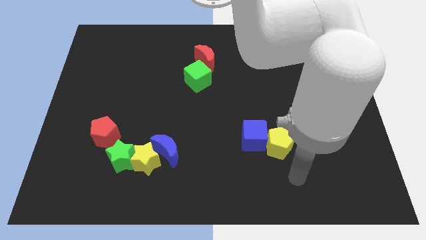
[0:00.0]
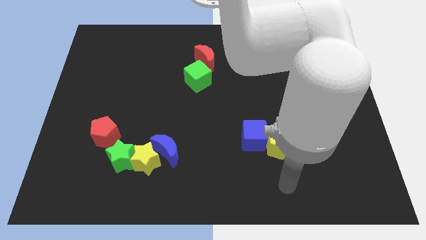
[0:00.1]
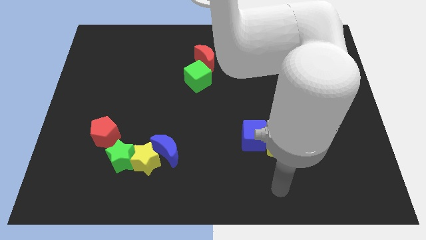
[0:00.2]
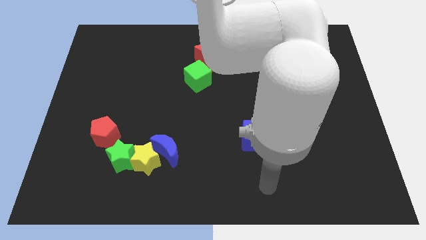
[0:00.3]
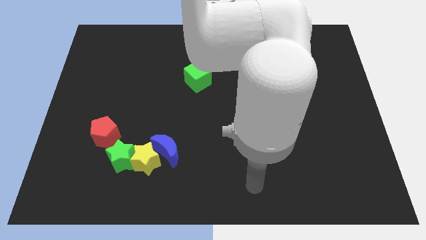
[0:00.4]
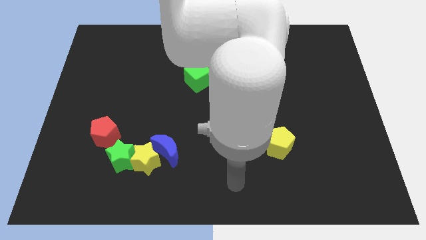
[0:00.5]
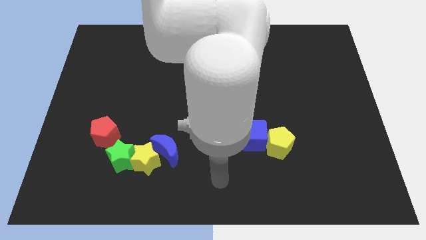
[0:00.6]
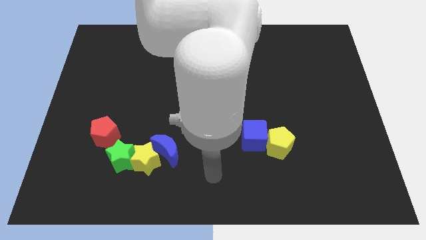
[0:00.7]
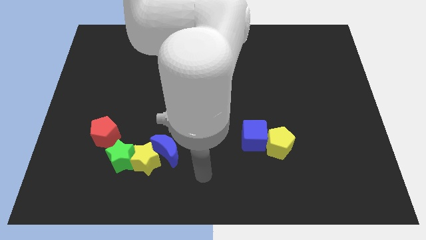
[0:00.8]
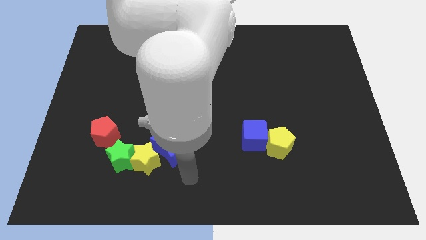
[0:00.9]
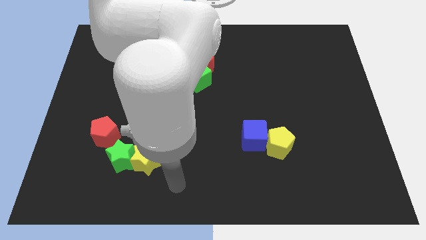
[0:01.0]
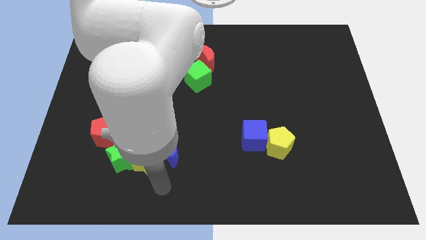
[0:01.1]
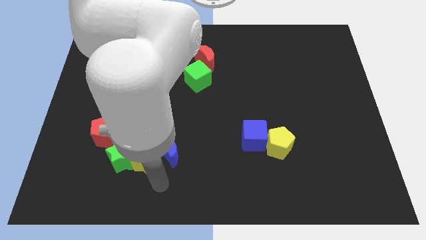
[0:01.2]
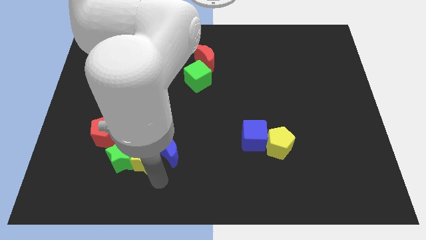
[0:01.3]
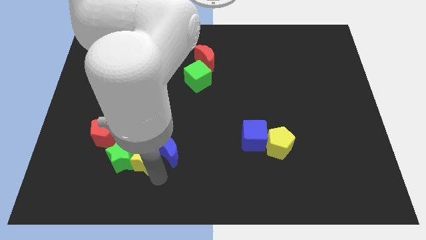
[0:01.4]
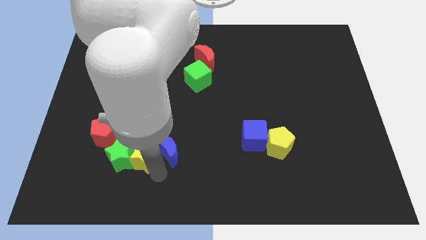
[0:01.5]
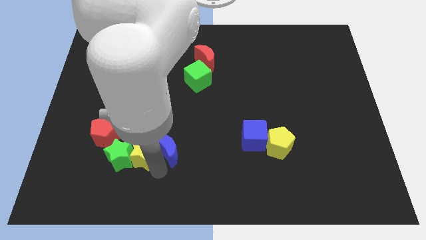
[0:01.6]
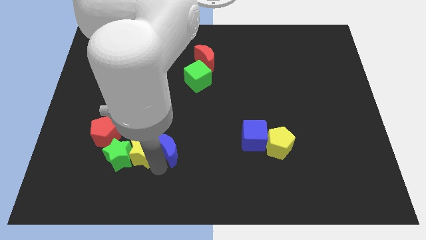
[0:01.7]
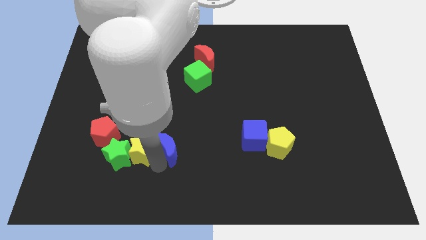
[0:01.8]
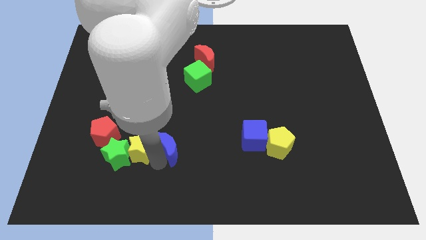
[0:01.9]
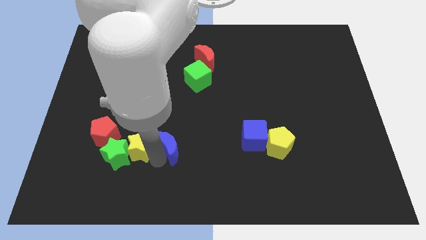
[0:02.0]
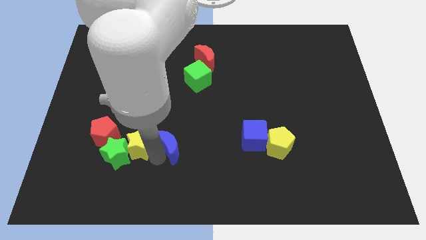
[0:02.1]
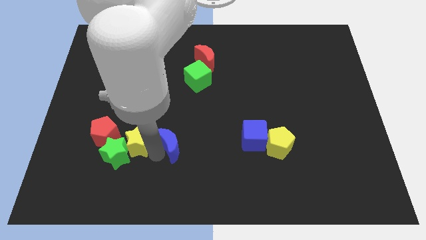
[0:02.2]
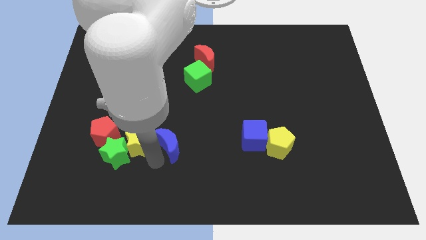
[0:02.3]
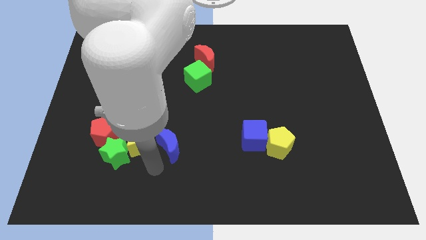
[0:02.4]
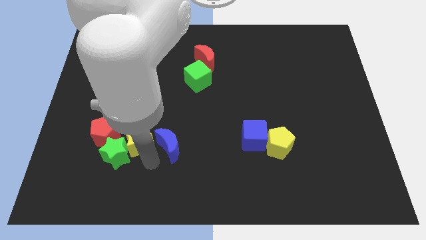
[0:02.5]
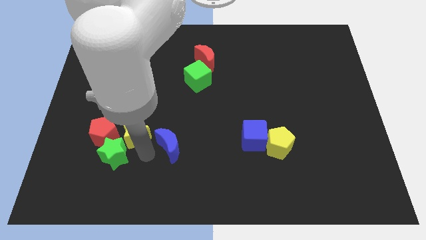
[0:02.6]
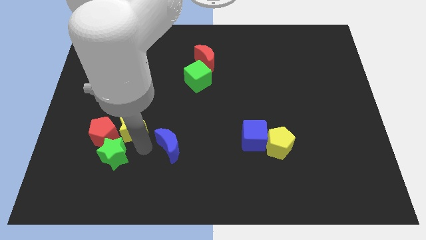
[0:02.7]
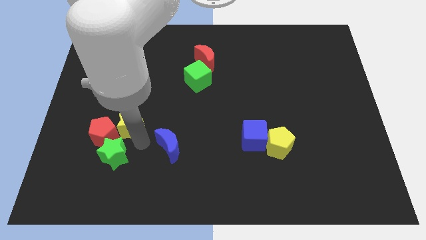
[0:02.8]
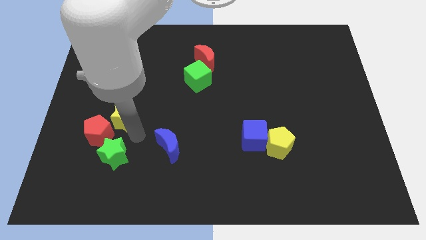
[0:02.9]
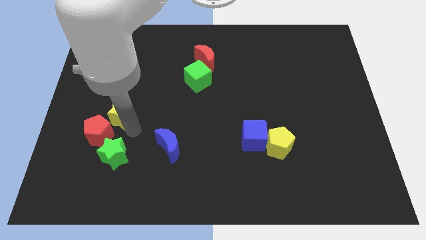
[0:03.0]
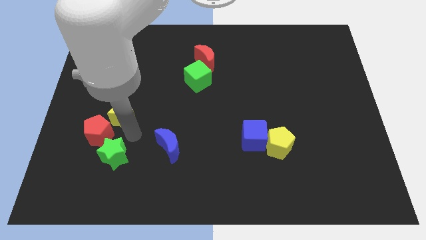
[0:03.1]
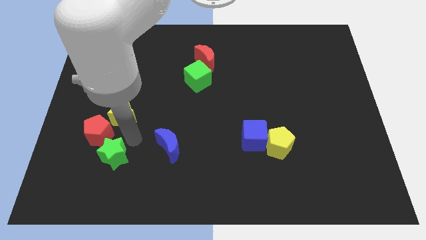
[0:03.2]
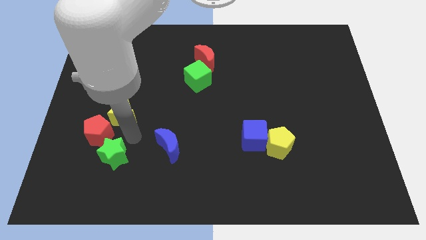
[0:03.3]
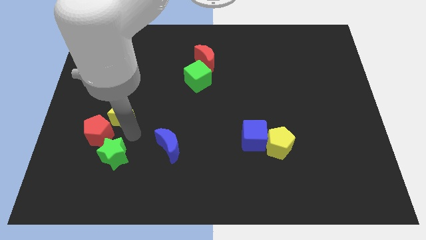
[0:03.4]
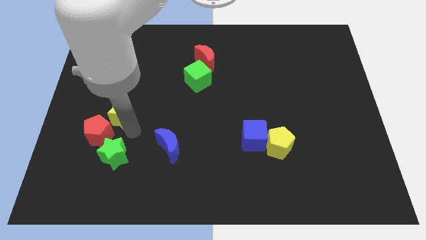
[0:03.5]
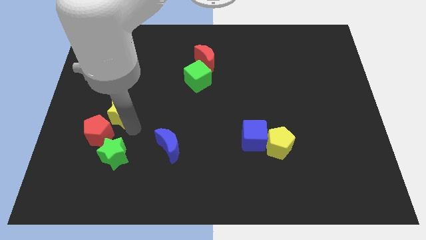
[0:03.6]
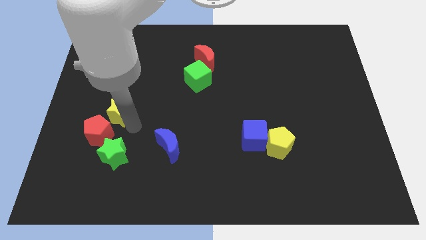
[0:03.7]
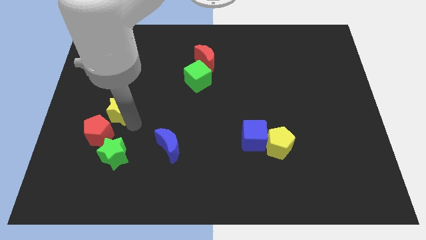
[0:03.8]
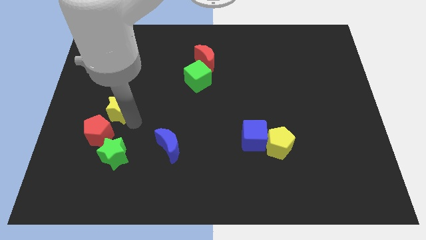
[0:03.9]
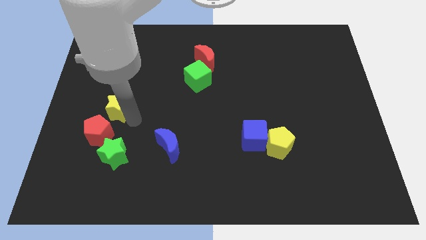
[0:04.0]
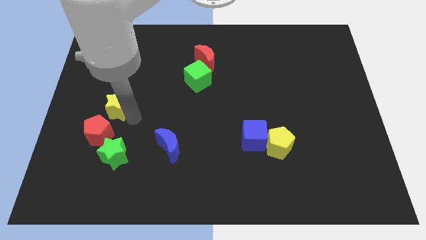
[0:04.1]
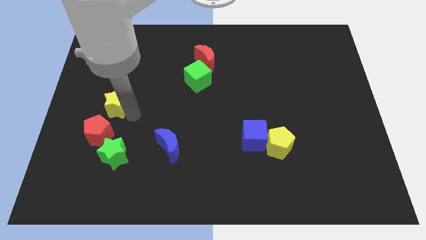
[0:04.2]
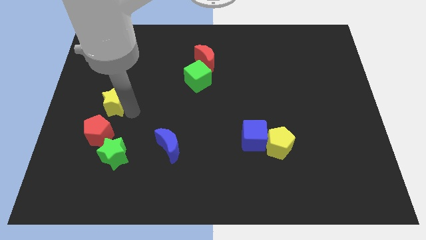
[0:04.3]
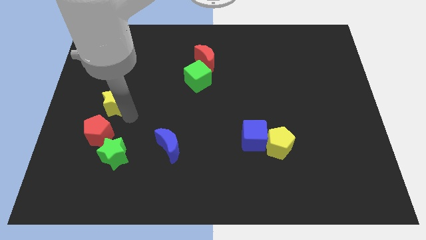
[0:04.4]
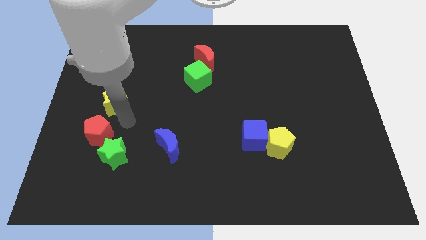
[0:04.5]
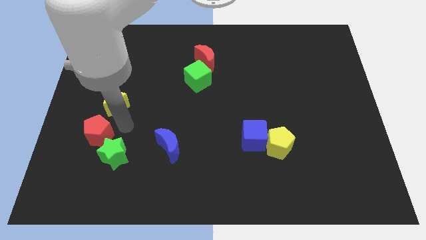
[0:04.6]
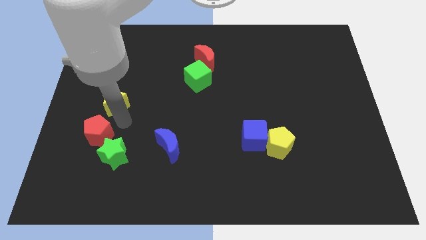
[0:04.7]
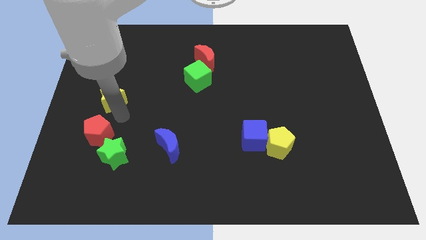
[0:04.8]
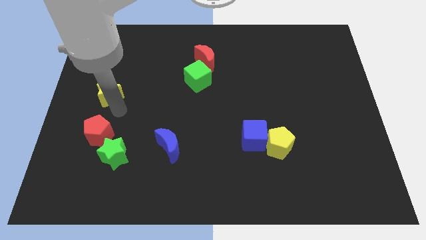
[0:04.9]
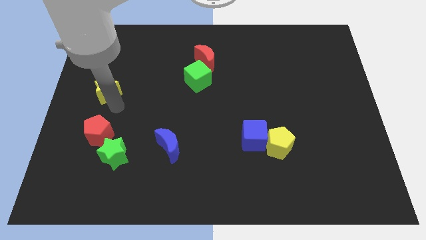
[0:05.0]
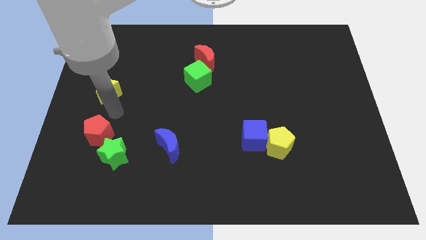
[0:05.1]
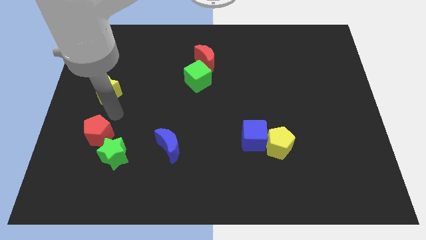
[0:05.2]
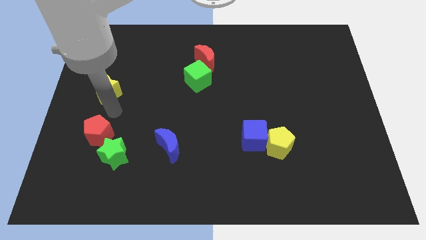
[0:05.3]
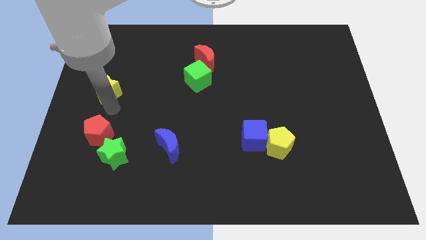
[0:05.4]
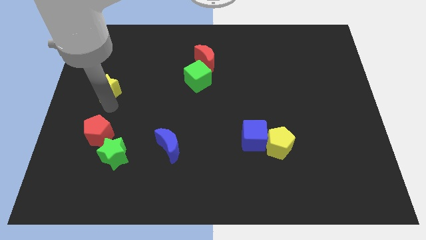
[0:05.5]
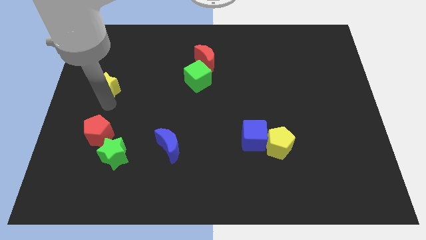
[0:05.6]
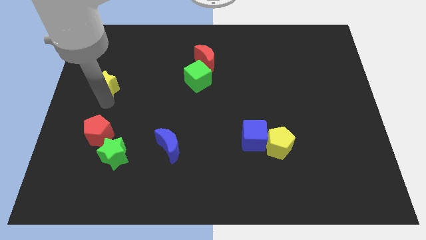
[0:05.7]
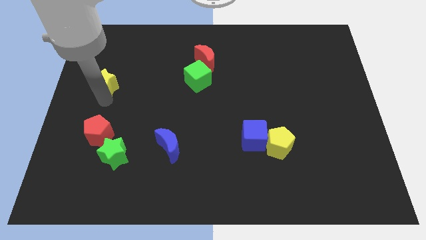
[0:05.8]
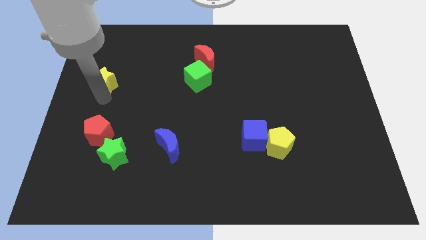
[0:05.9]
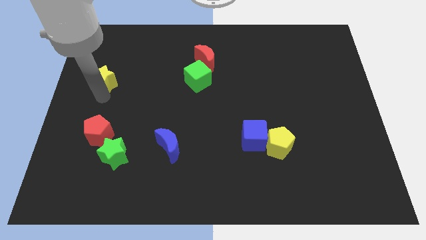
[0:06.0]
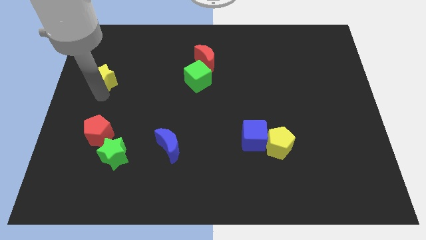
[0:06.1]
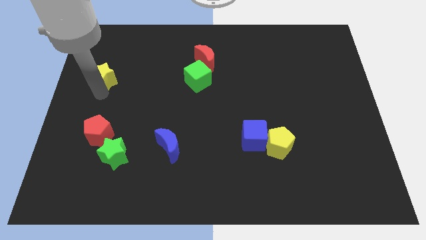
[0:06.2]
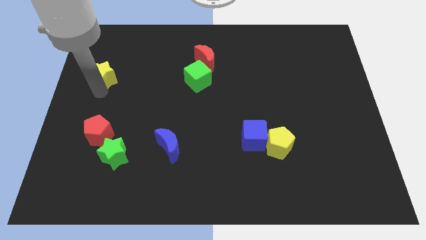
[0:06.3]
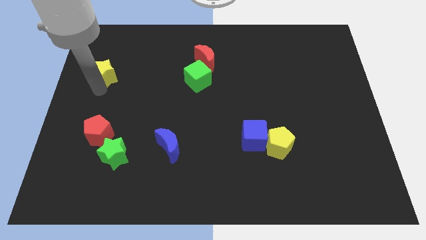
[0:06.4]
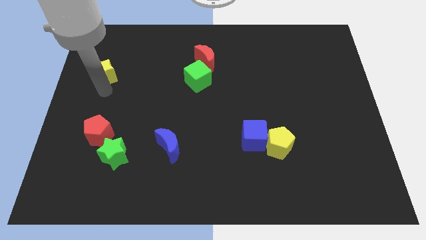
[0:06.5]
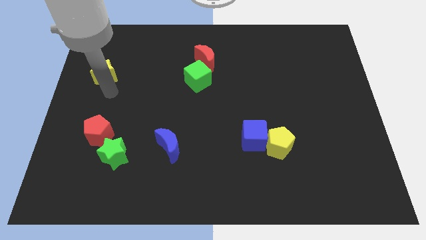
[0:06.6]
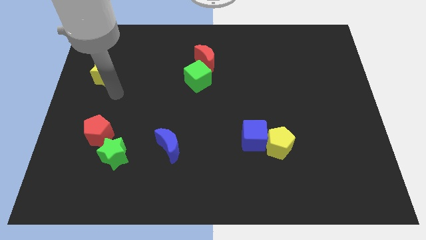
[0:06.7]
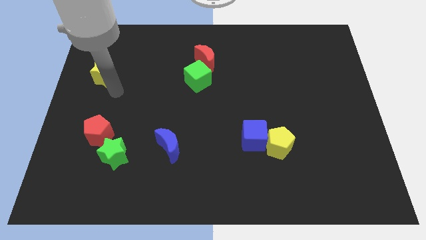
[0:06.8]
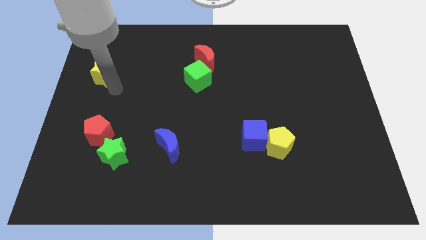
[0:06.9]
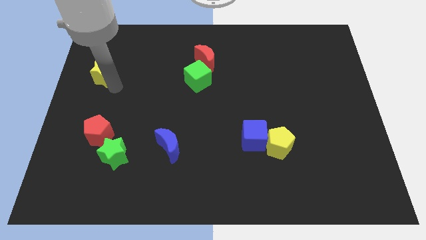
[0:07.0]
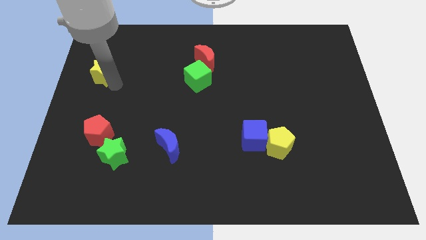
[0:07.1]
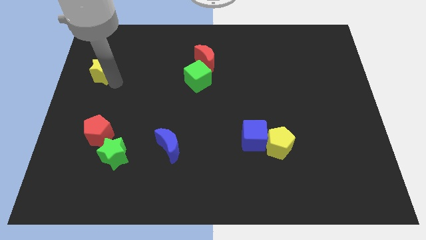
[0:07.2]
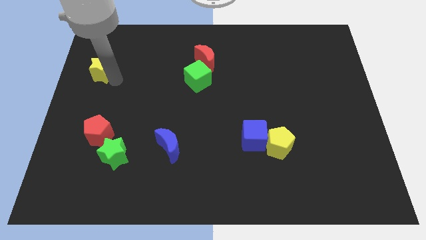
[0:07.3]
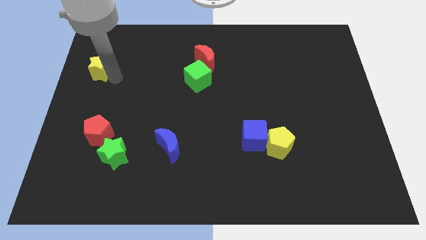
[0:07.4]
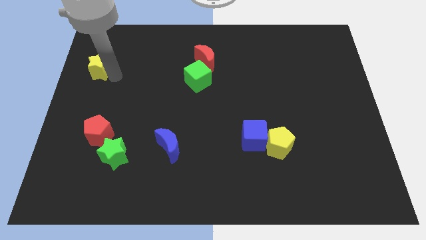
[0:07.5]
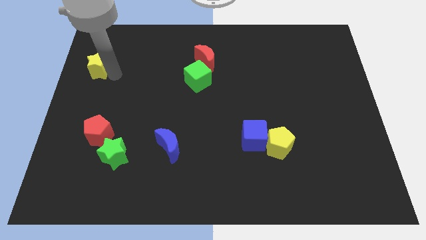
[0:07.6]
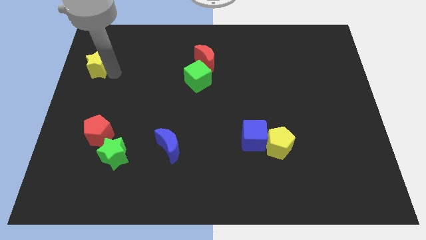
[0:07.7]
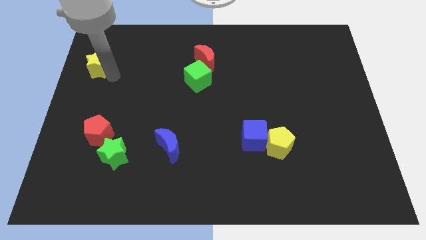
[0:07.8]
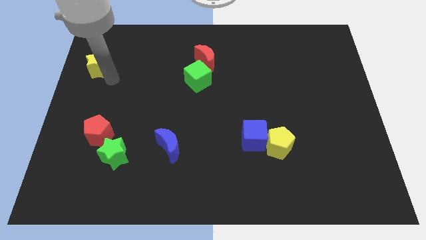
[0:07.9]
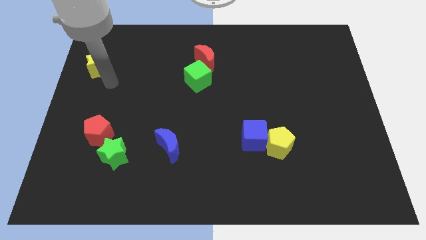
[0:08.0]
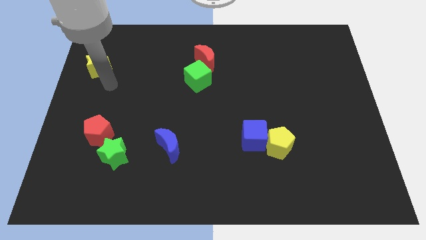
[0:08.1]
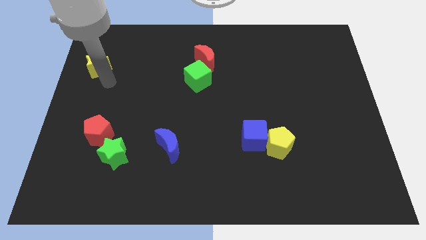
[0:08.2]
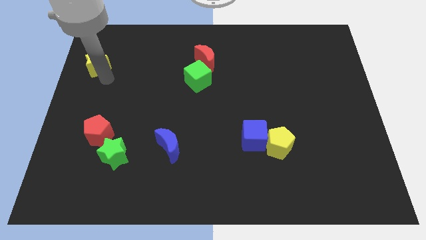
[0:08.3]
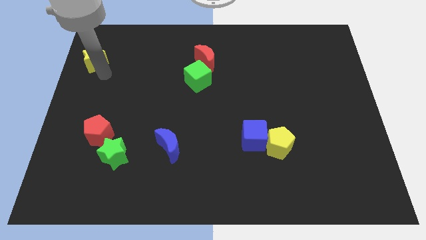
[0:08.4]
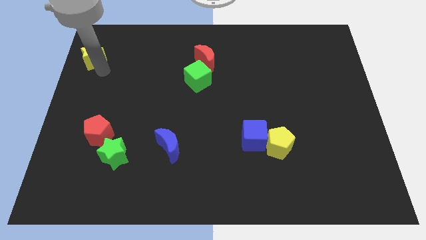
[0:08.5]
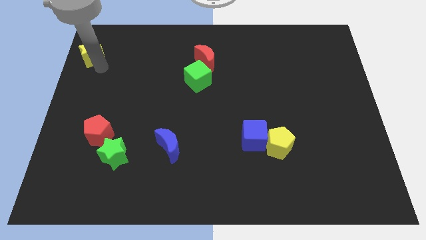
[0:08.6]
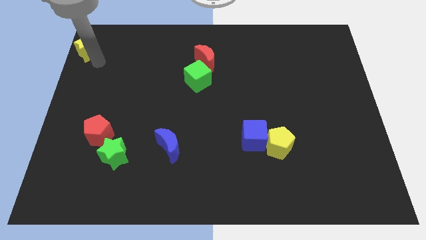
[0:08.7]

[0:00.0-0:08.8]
move the yellow star to the top left of the board
